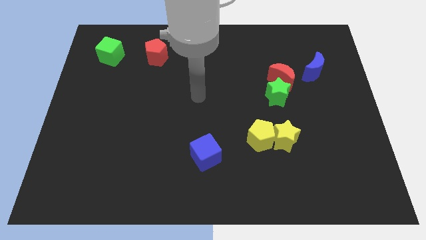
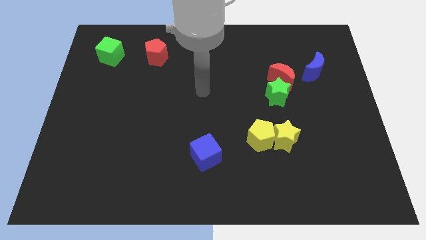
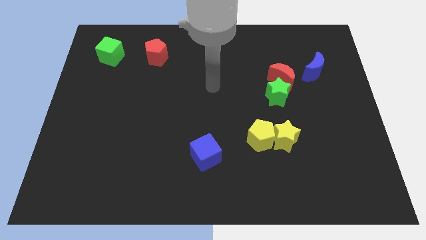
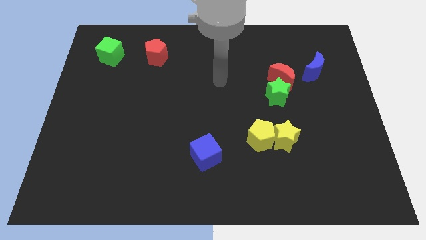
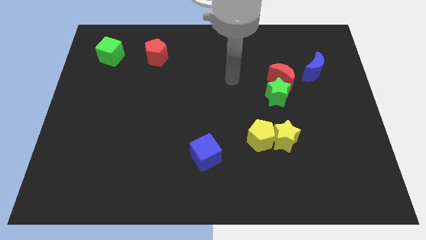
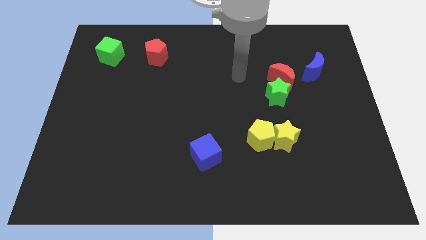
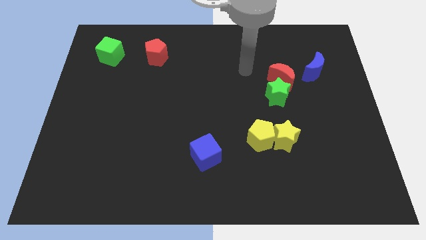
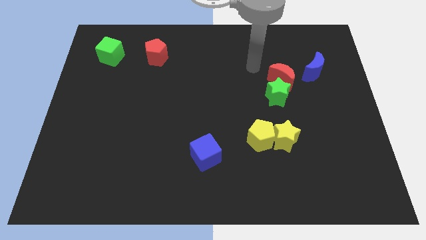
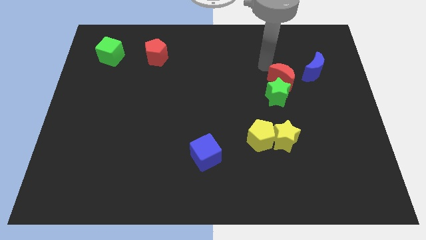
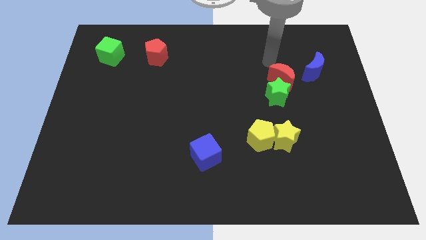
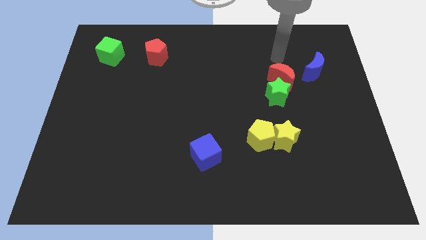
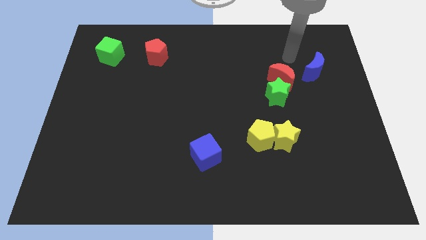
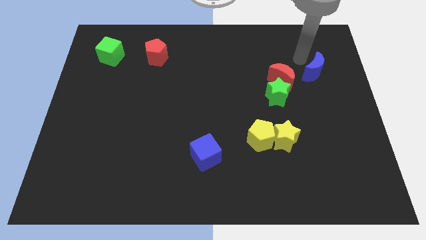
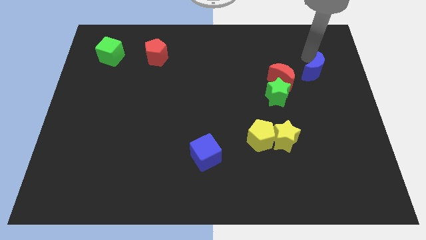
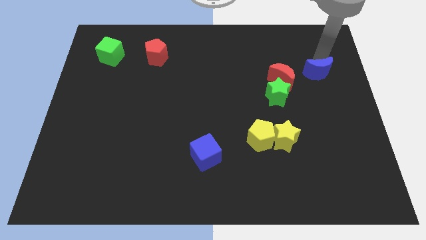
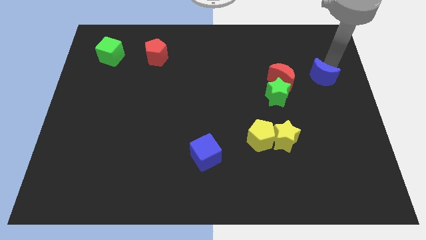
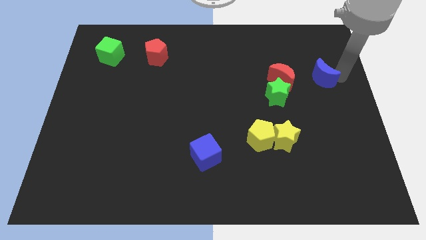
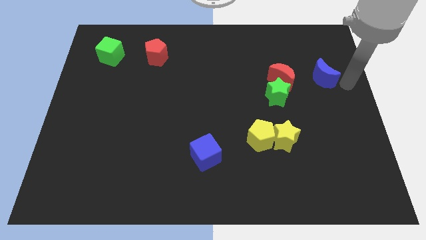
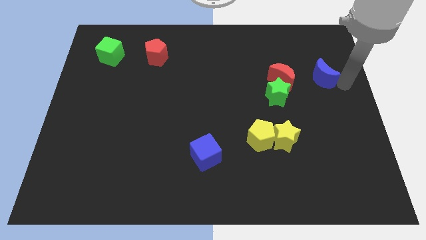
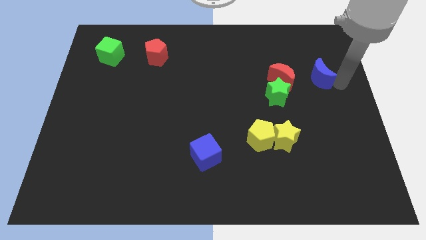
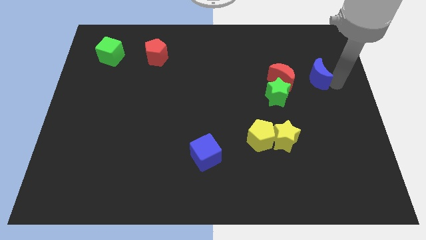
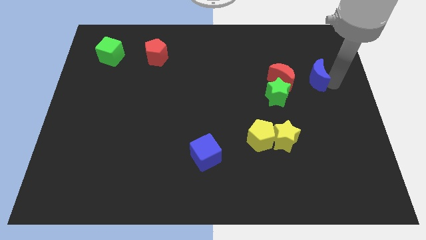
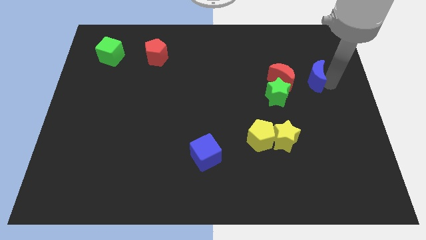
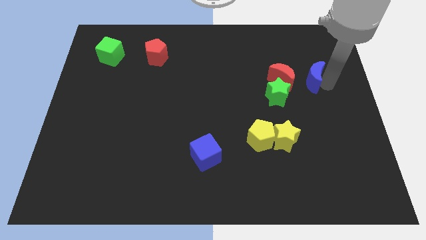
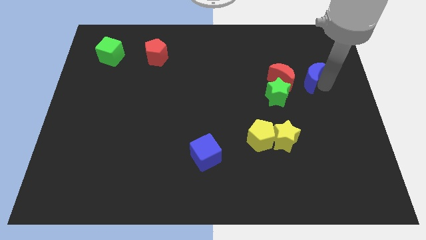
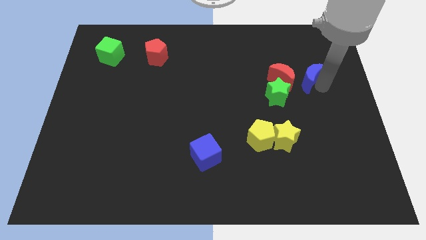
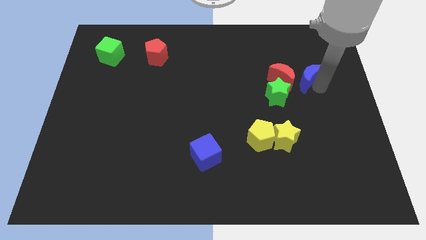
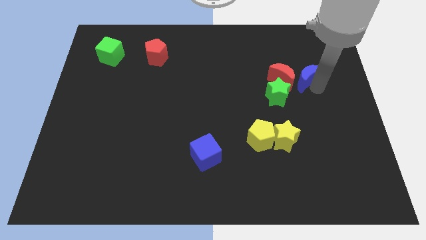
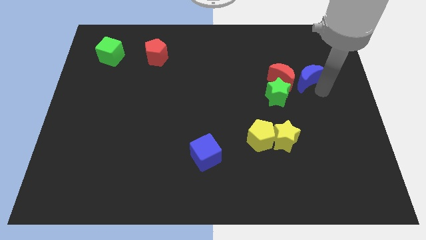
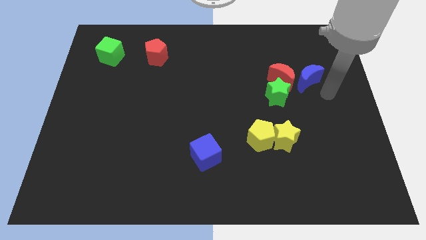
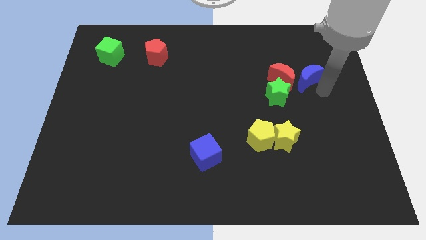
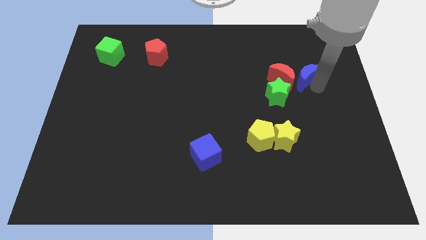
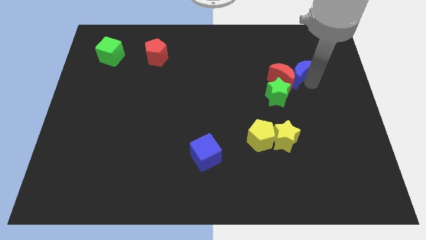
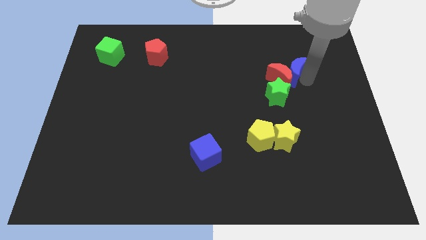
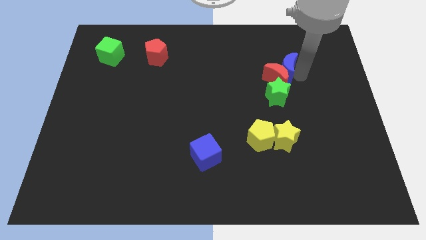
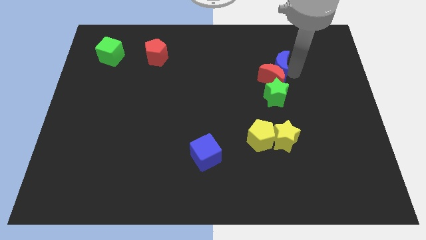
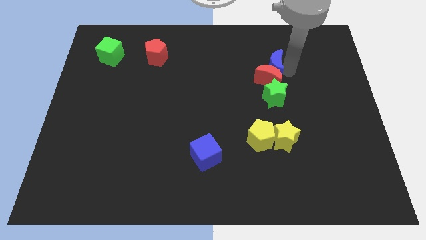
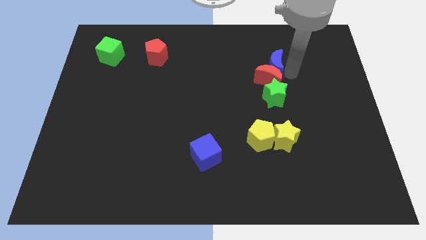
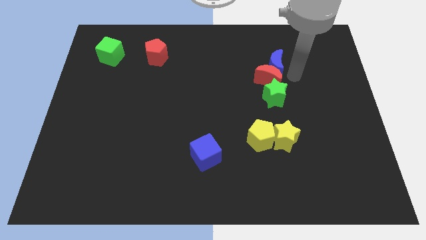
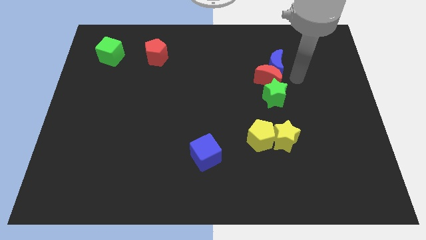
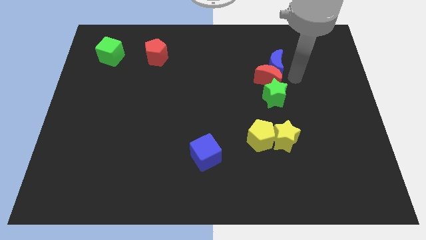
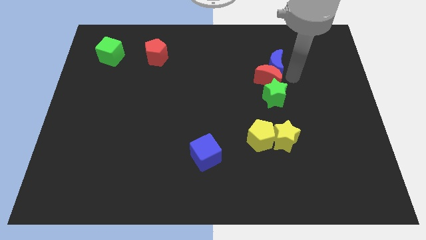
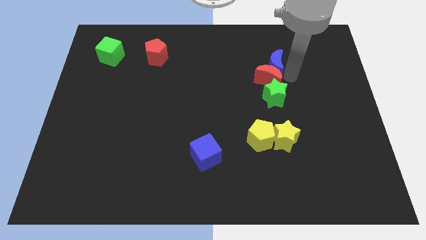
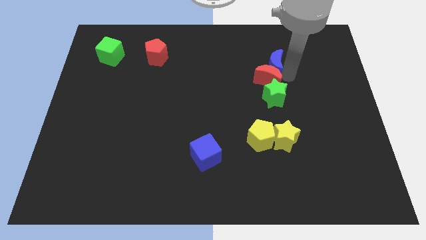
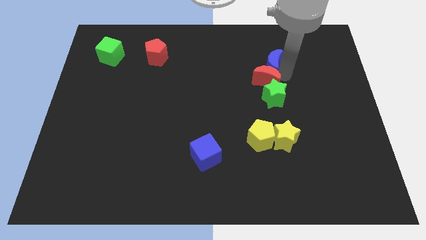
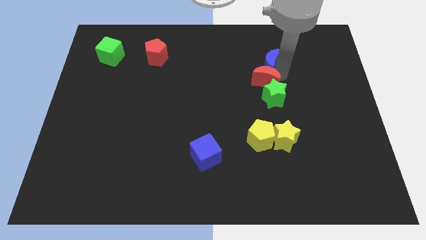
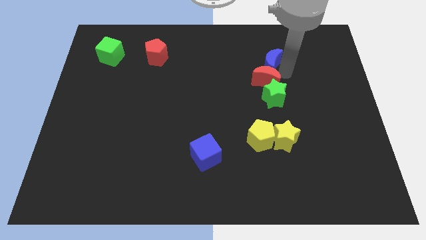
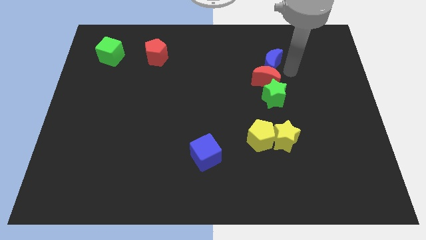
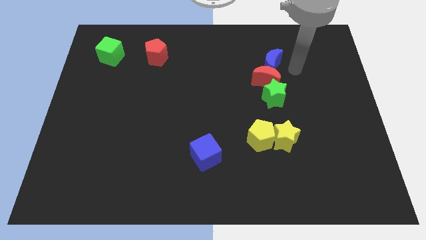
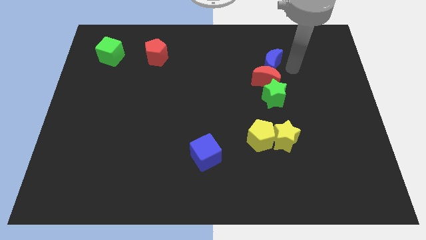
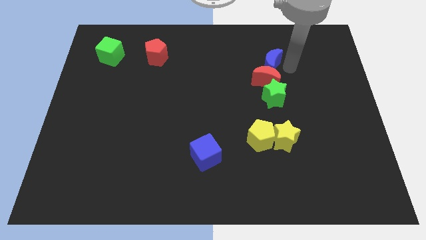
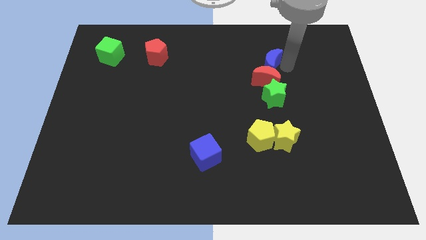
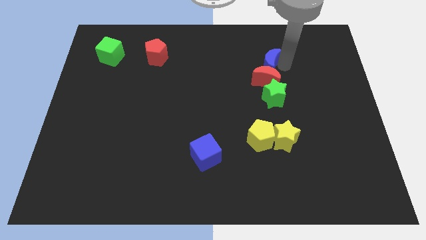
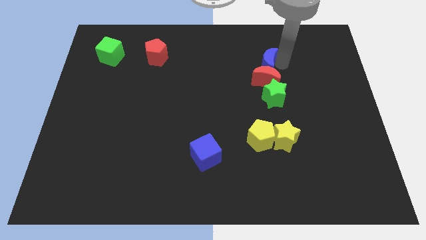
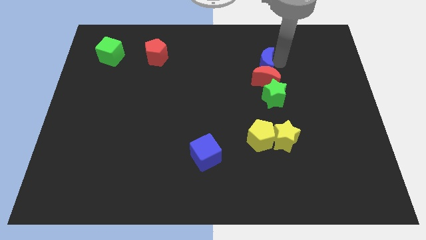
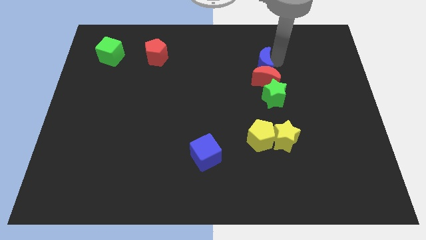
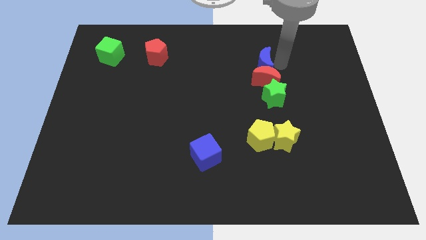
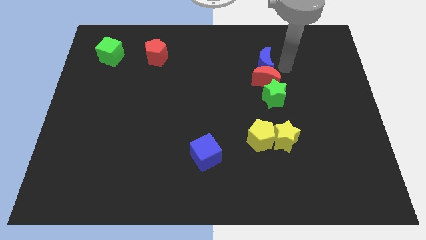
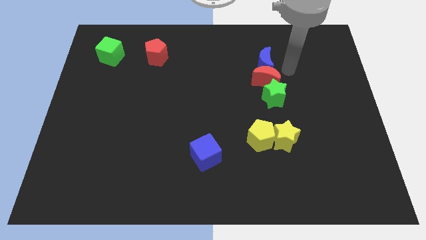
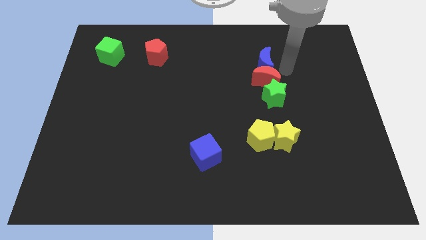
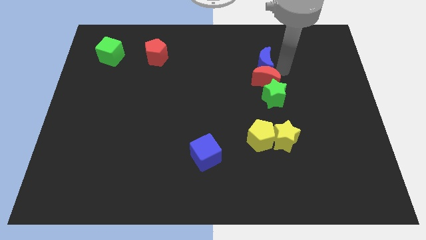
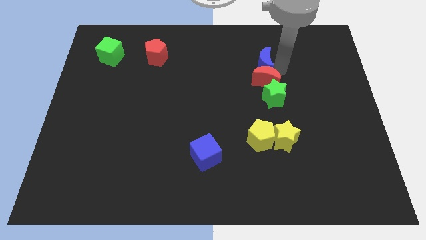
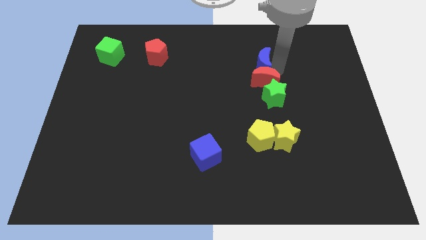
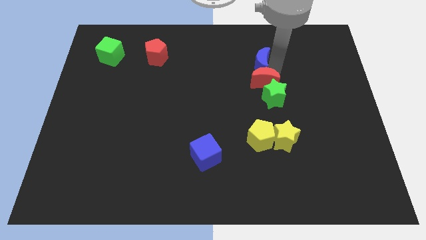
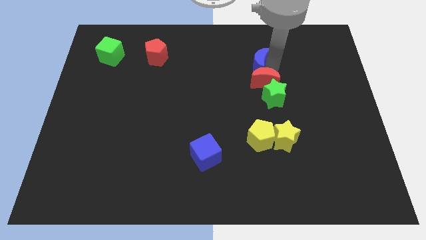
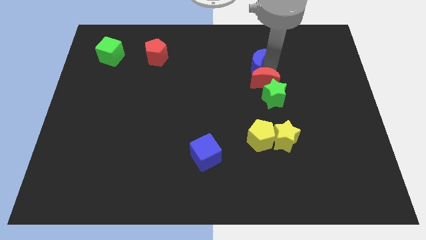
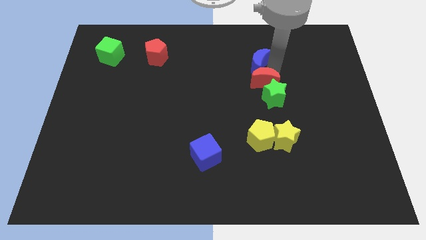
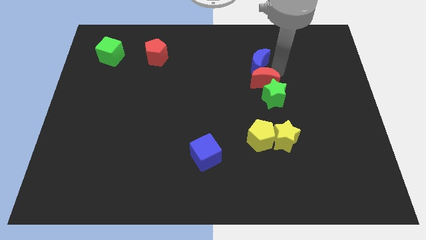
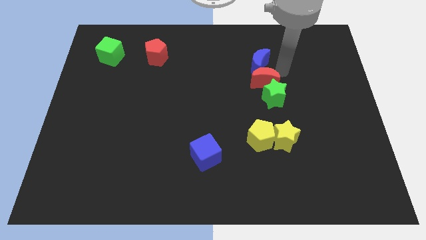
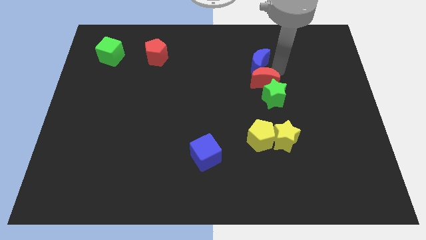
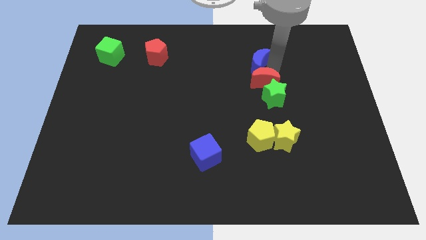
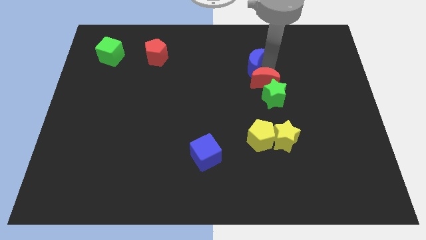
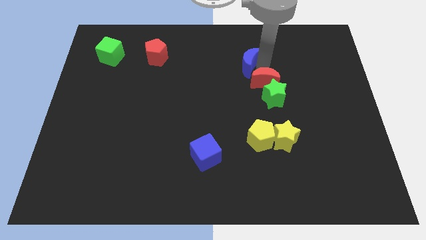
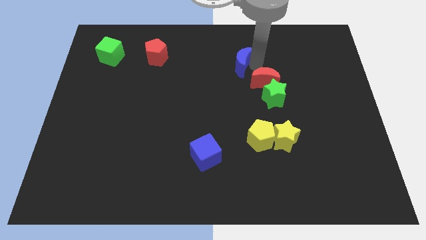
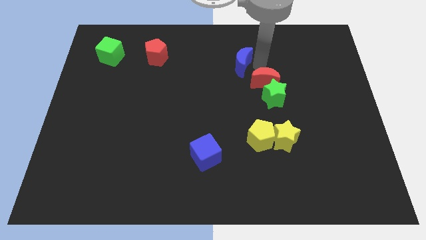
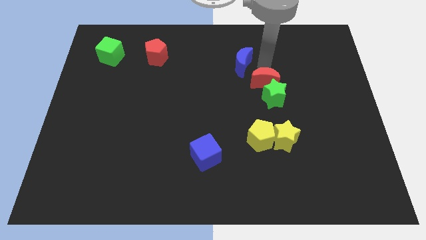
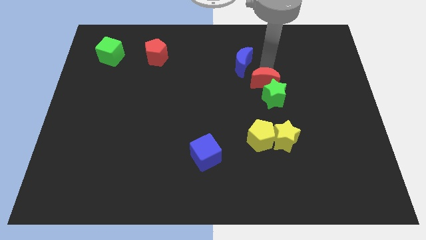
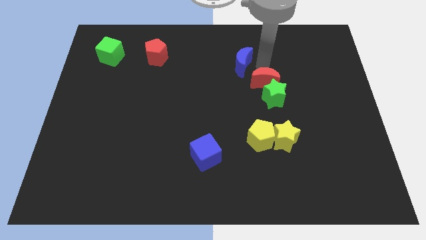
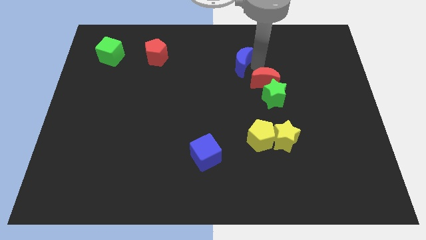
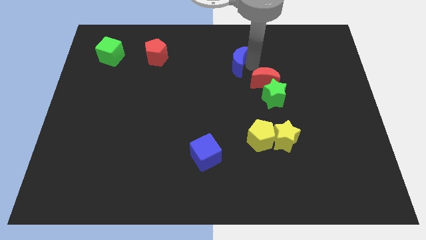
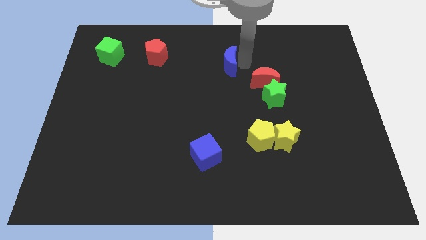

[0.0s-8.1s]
move the blue moon to the left

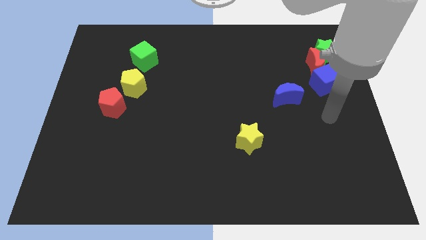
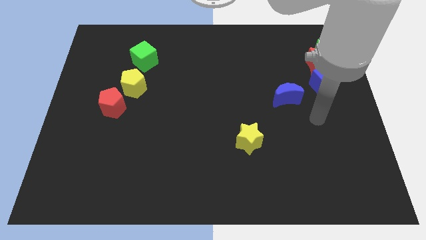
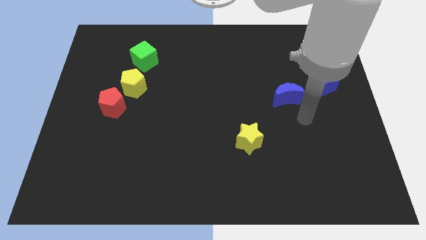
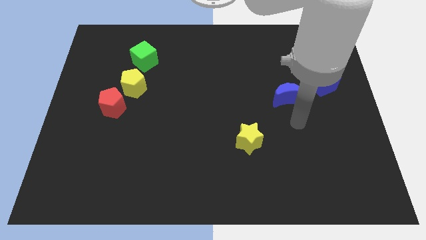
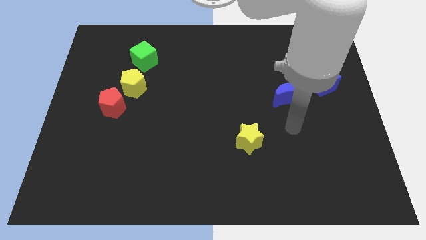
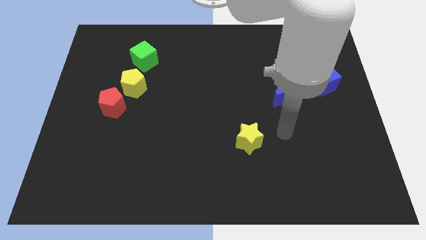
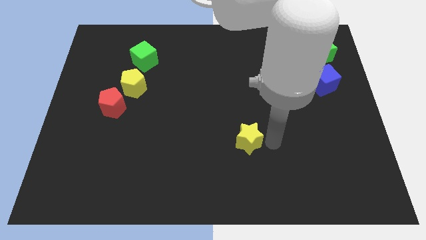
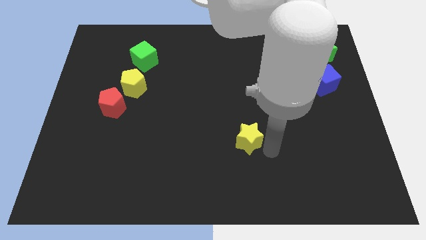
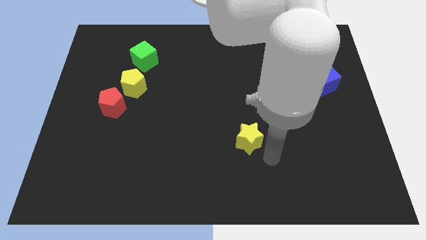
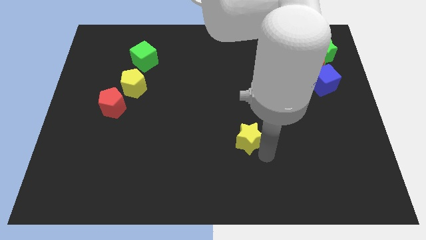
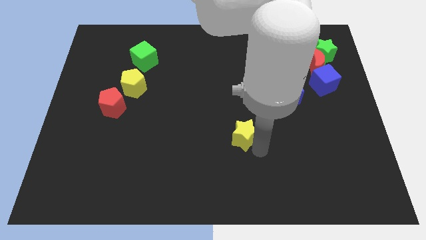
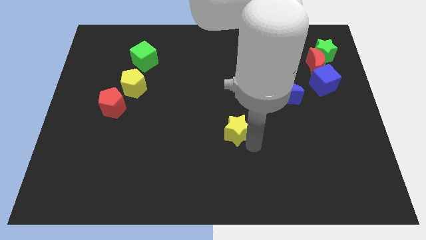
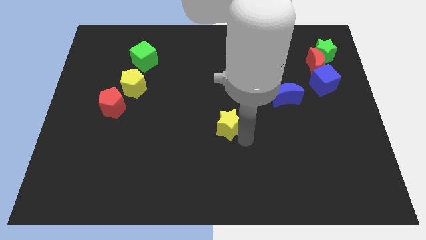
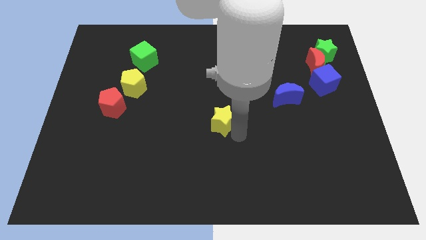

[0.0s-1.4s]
move the yellow star upwards and left diagonally a bit
